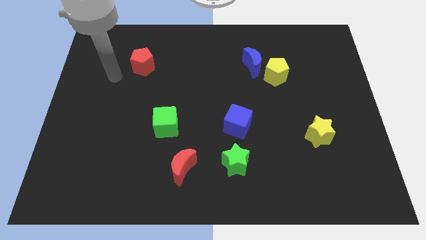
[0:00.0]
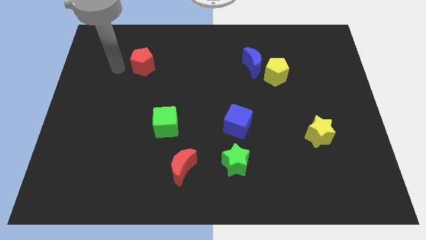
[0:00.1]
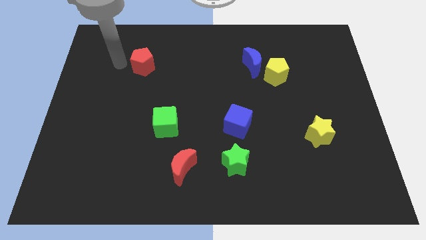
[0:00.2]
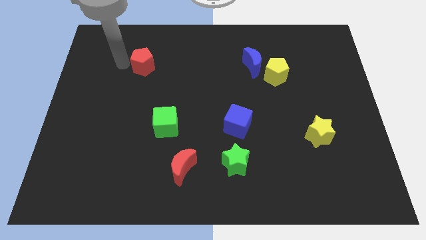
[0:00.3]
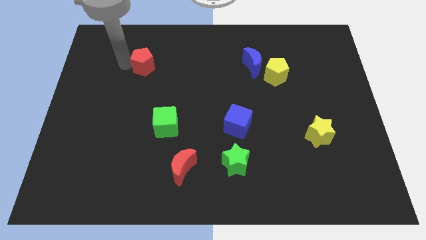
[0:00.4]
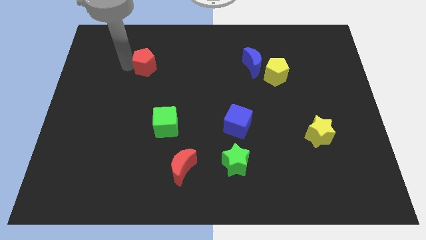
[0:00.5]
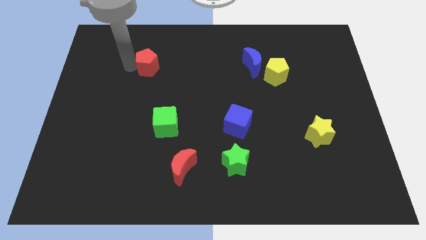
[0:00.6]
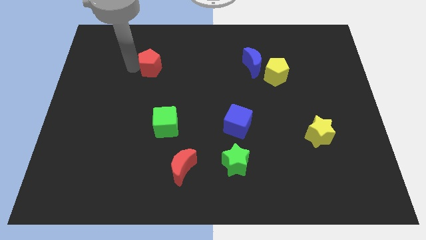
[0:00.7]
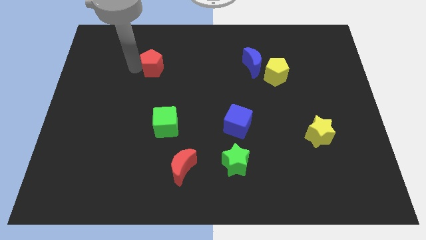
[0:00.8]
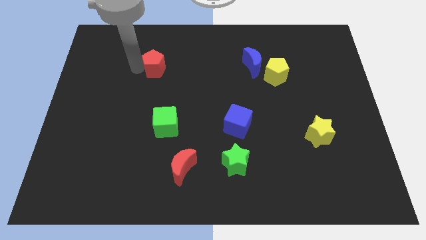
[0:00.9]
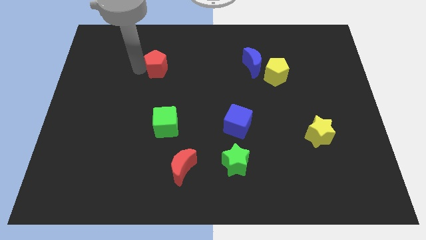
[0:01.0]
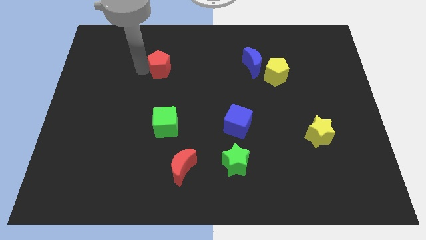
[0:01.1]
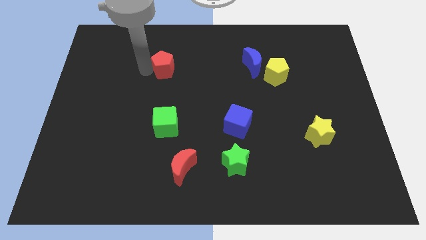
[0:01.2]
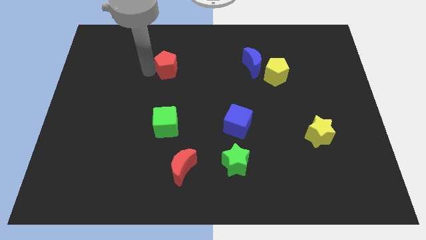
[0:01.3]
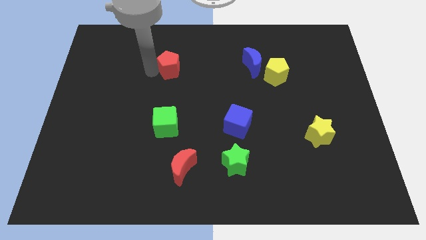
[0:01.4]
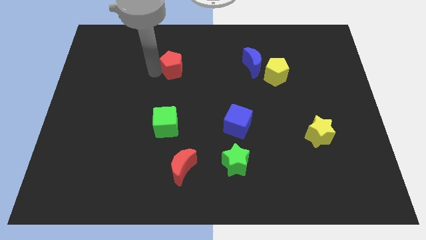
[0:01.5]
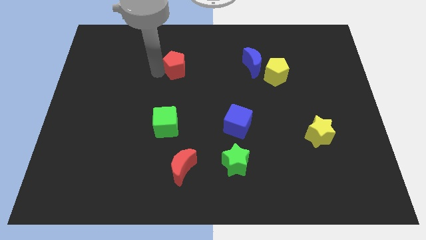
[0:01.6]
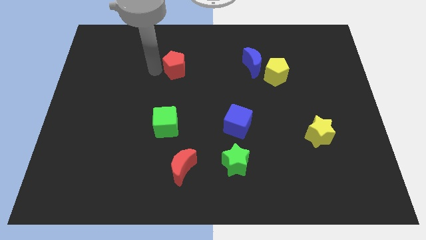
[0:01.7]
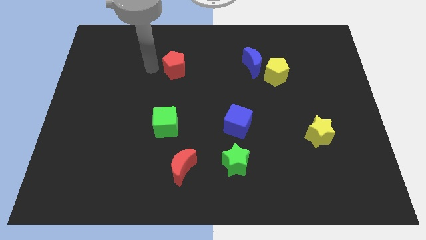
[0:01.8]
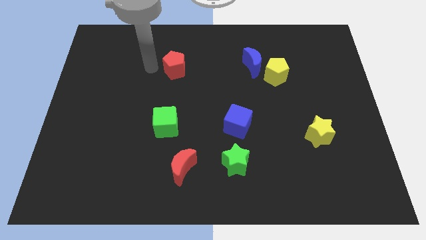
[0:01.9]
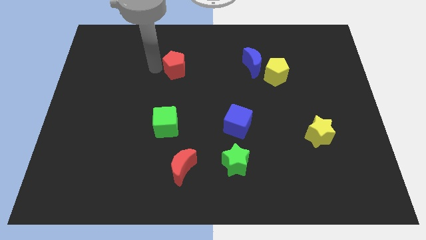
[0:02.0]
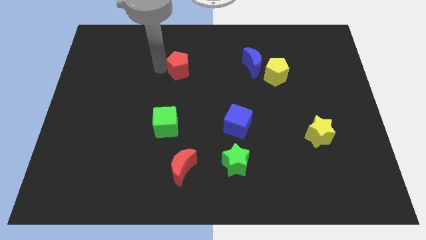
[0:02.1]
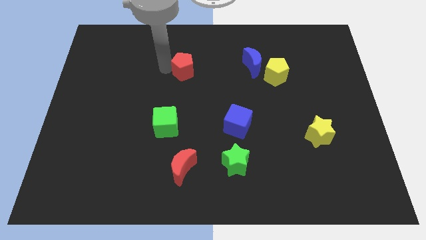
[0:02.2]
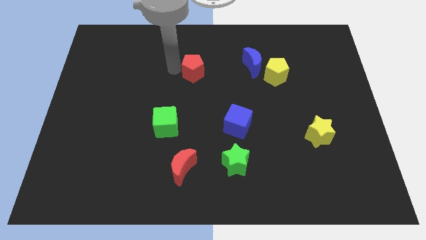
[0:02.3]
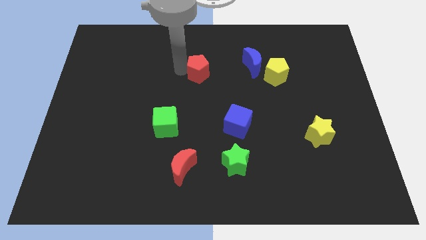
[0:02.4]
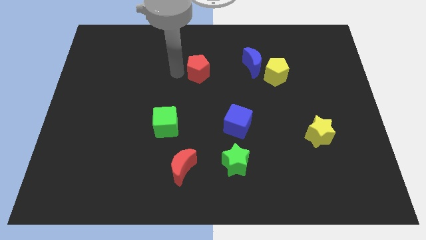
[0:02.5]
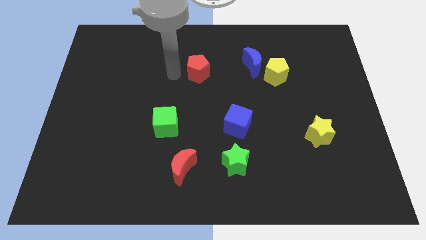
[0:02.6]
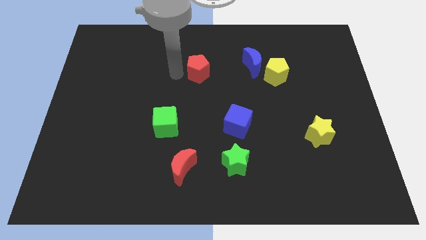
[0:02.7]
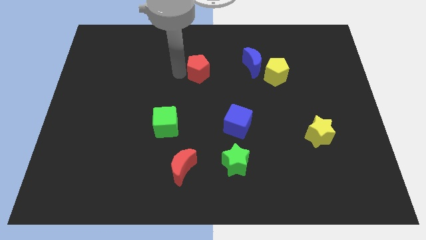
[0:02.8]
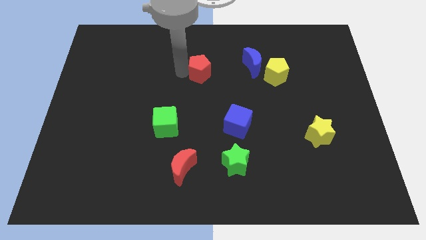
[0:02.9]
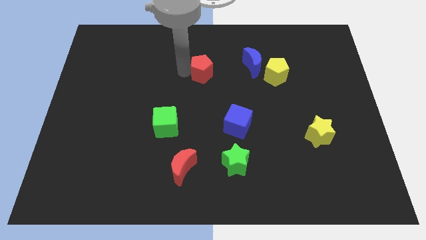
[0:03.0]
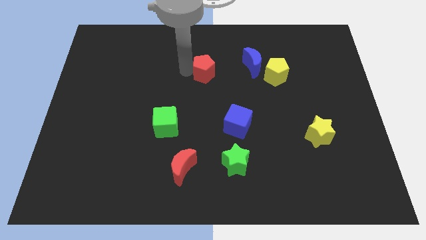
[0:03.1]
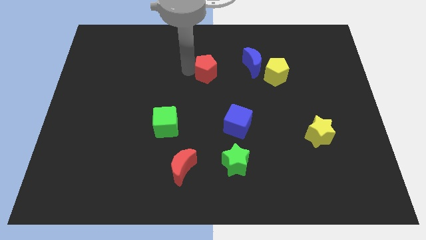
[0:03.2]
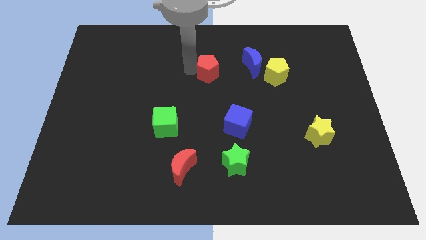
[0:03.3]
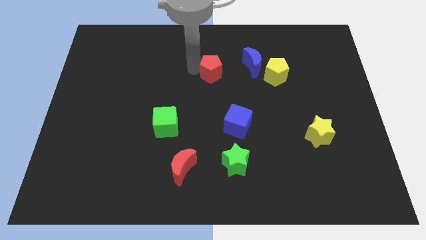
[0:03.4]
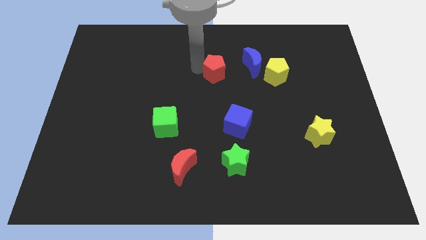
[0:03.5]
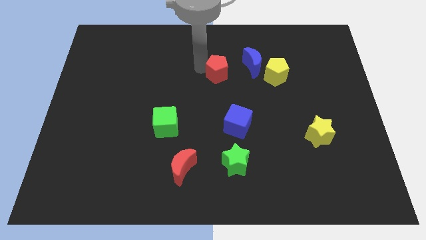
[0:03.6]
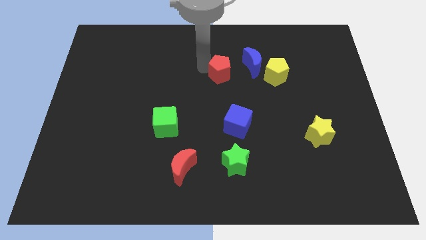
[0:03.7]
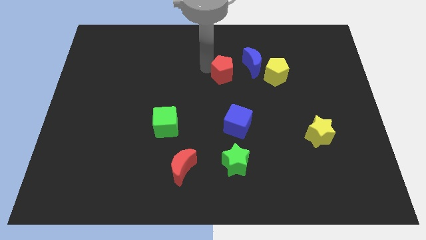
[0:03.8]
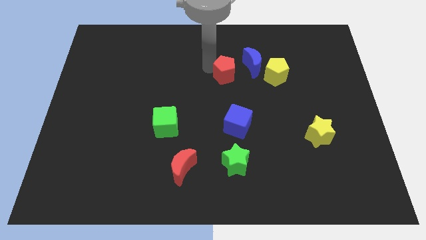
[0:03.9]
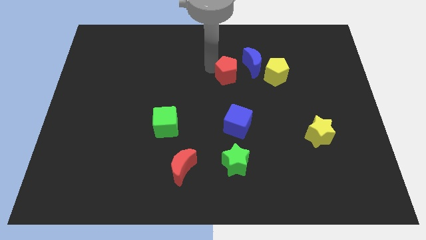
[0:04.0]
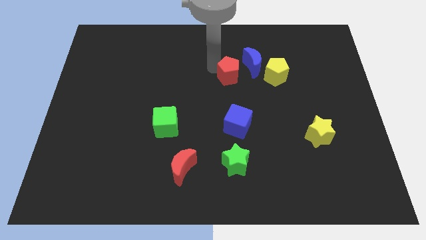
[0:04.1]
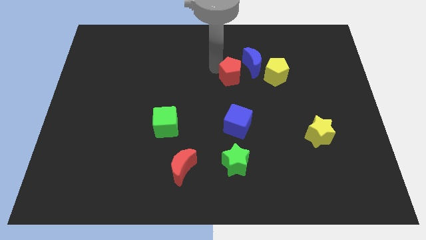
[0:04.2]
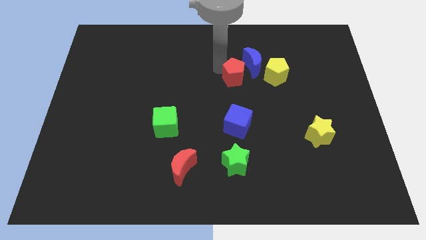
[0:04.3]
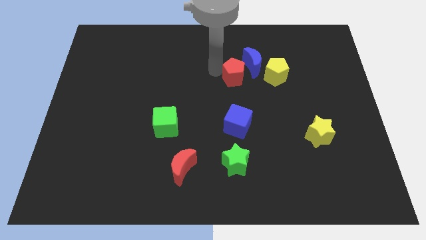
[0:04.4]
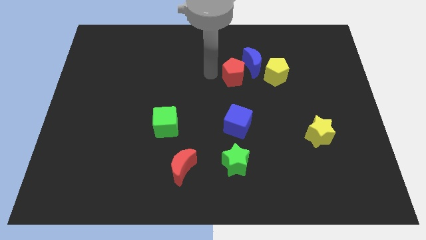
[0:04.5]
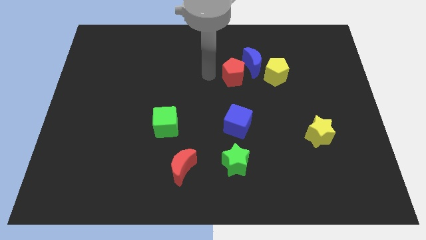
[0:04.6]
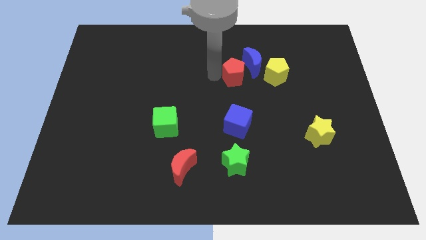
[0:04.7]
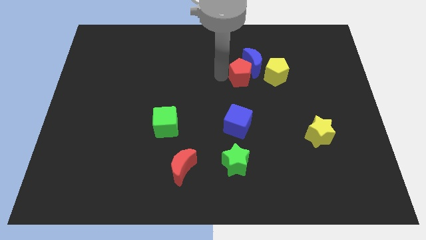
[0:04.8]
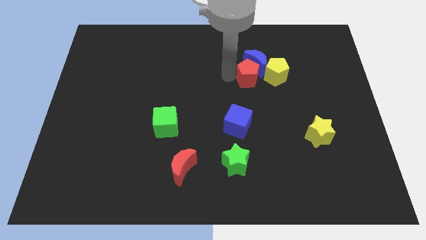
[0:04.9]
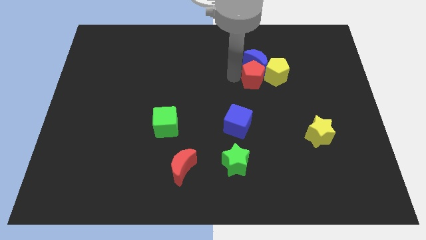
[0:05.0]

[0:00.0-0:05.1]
slide the red pentagon close to the yellow pentagon

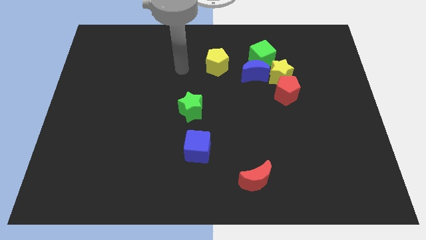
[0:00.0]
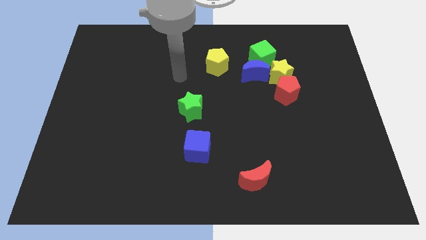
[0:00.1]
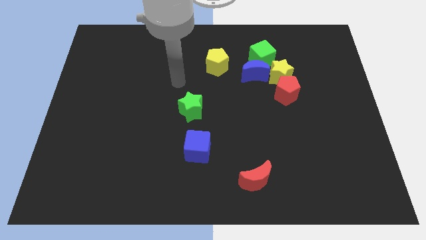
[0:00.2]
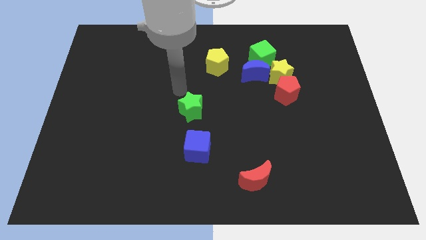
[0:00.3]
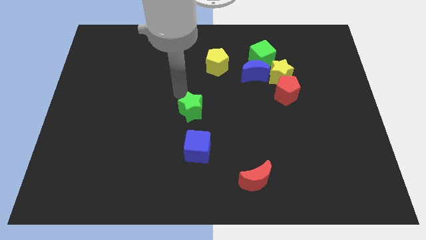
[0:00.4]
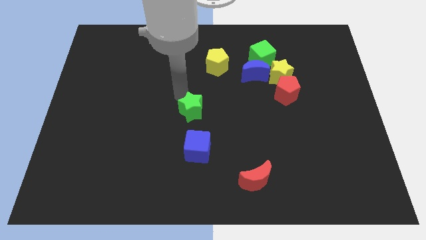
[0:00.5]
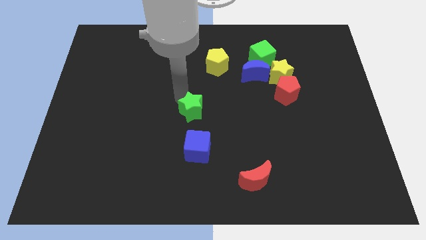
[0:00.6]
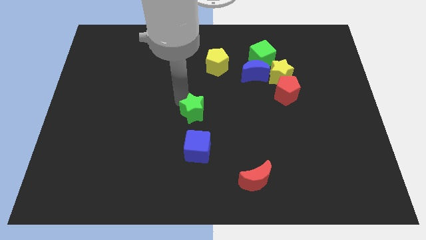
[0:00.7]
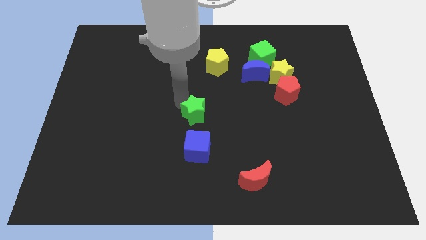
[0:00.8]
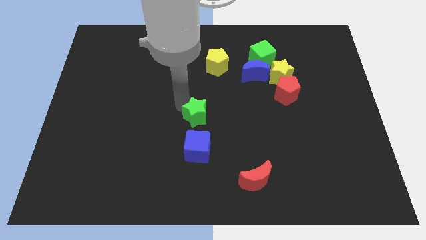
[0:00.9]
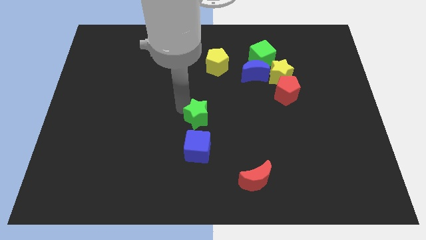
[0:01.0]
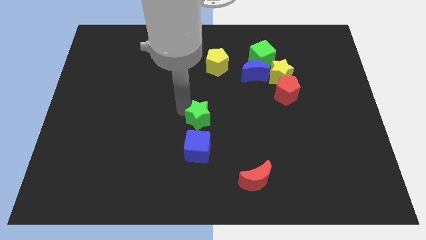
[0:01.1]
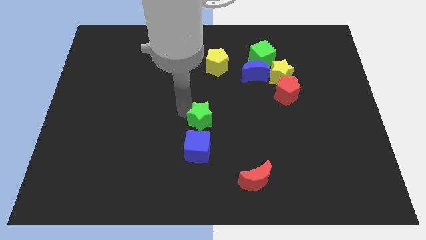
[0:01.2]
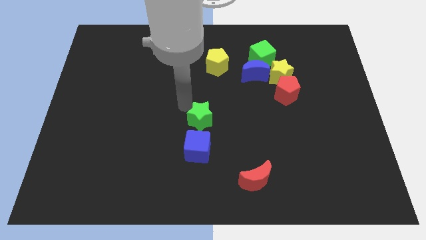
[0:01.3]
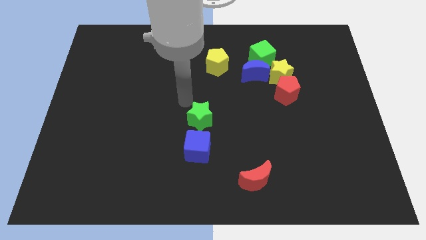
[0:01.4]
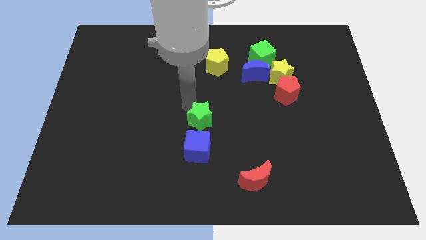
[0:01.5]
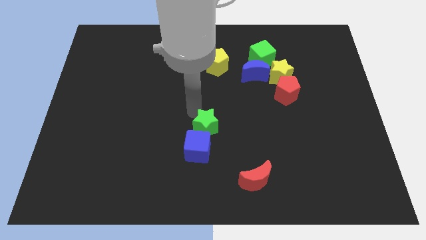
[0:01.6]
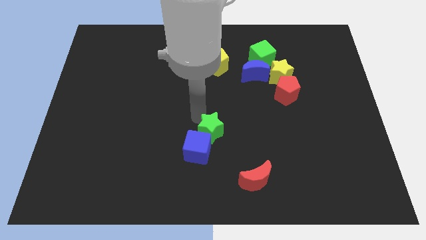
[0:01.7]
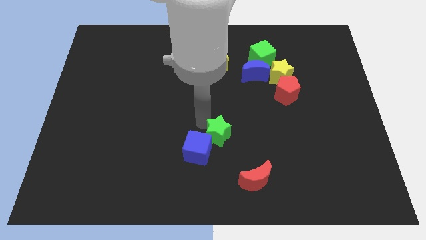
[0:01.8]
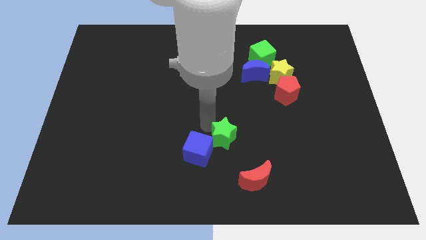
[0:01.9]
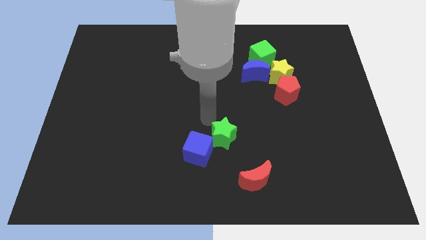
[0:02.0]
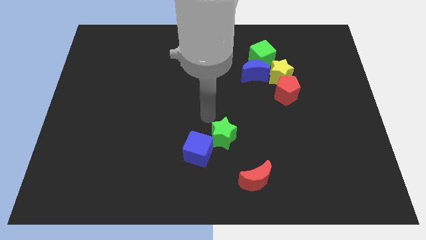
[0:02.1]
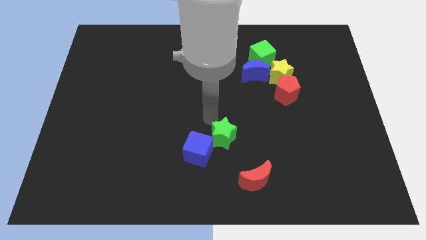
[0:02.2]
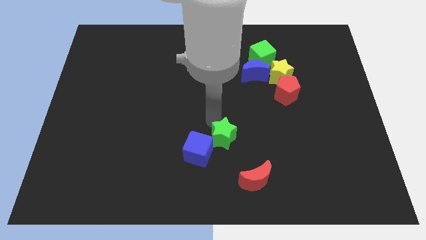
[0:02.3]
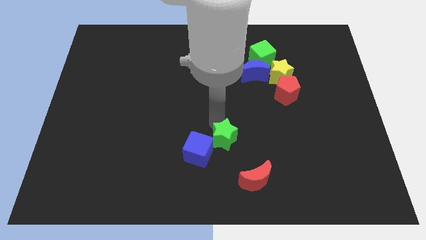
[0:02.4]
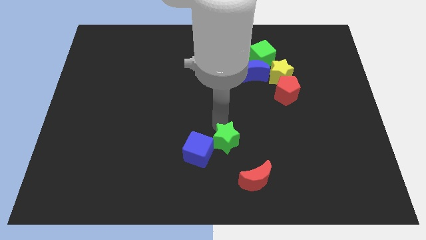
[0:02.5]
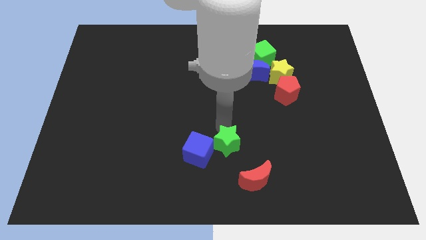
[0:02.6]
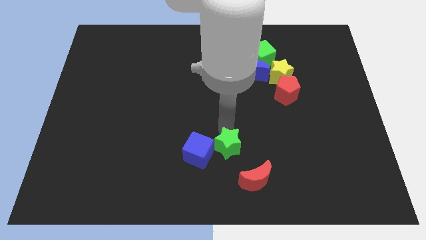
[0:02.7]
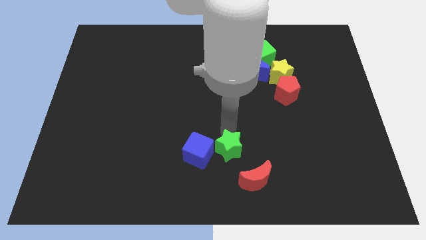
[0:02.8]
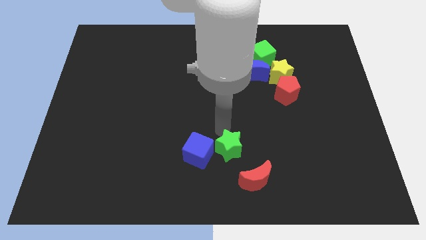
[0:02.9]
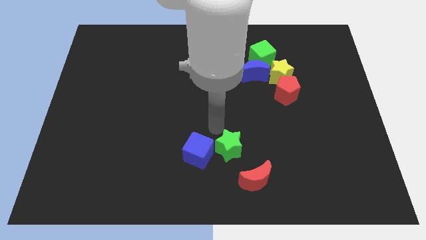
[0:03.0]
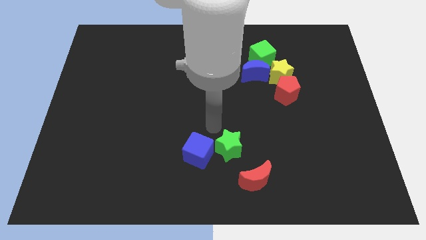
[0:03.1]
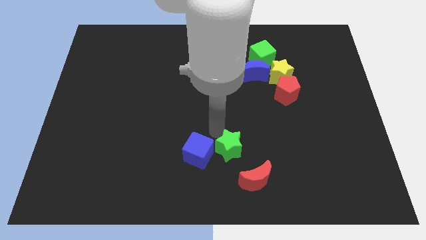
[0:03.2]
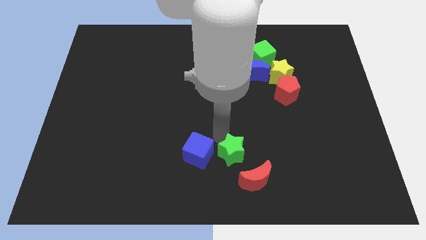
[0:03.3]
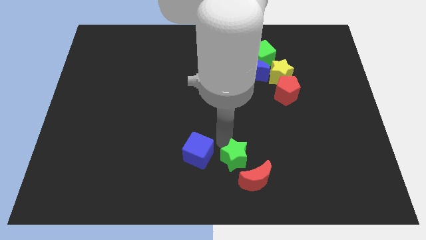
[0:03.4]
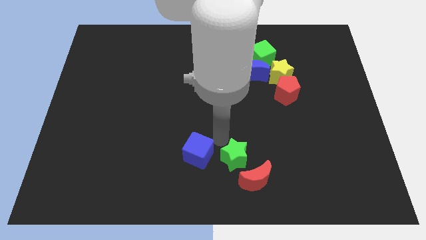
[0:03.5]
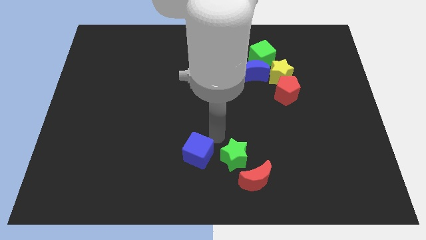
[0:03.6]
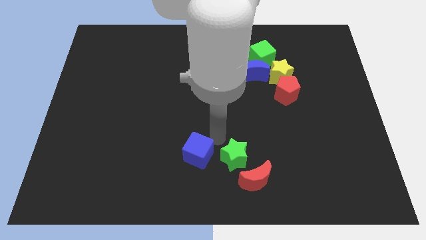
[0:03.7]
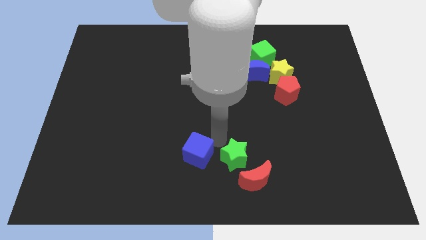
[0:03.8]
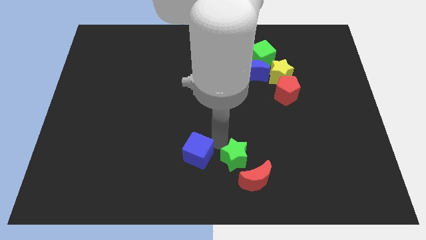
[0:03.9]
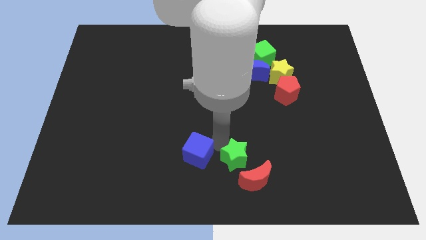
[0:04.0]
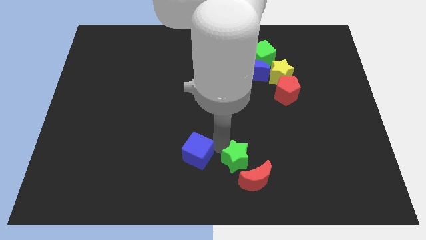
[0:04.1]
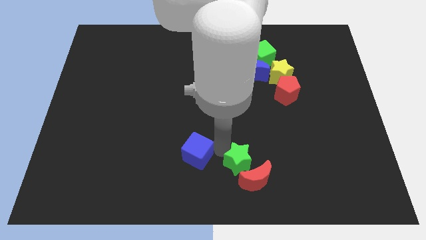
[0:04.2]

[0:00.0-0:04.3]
push the green star towards the red moon
